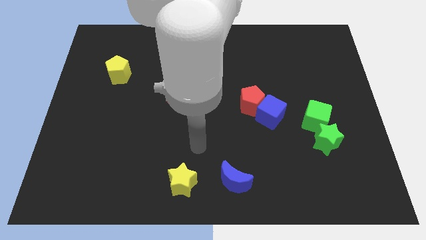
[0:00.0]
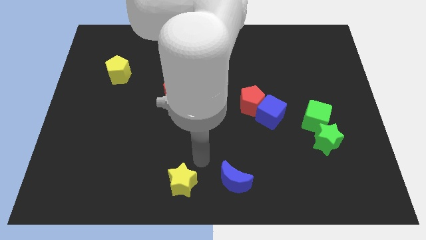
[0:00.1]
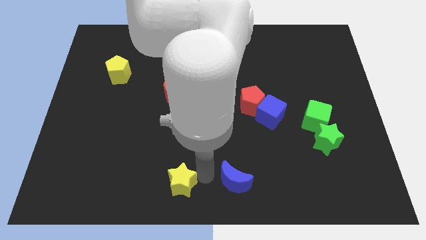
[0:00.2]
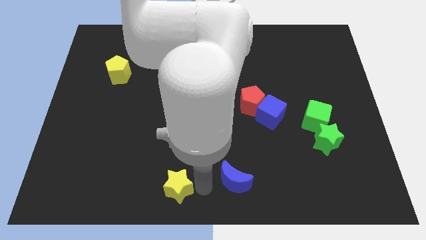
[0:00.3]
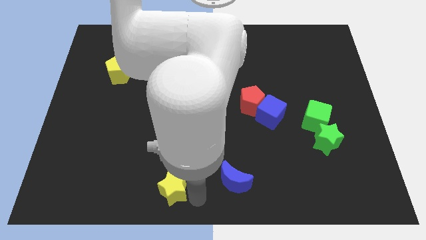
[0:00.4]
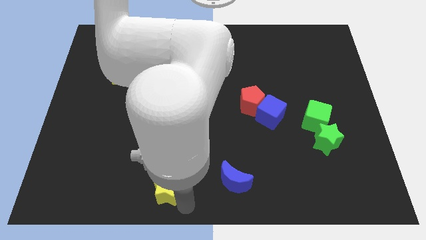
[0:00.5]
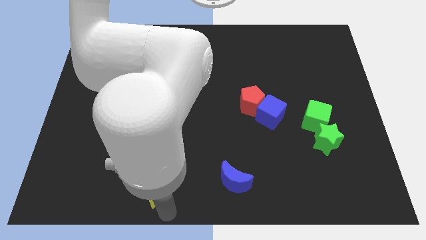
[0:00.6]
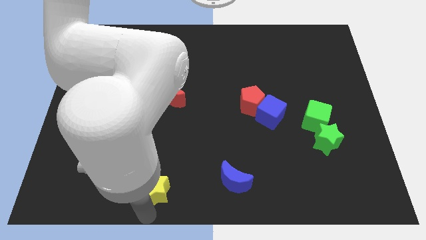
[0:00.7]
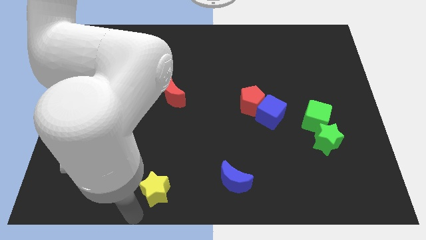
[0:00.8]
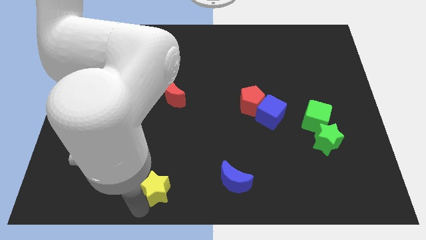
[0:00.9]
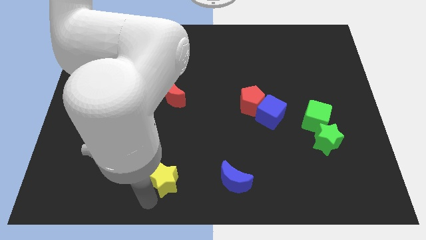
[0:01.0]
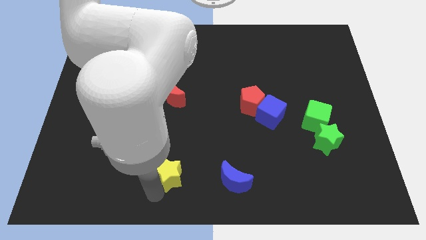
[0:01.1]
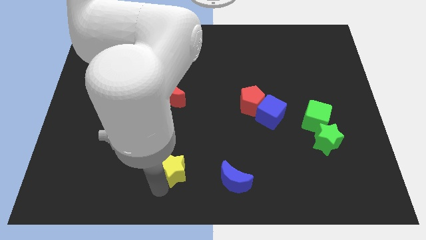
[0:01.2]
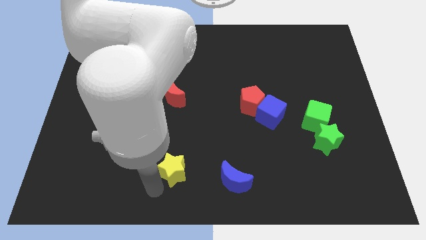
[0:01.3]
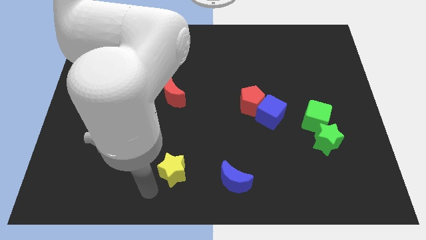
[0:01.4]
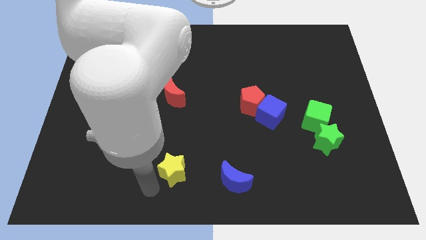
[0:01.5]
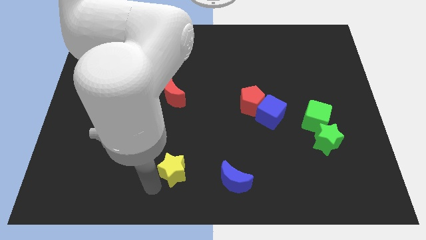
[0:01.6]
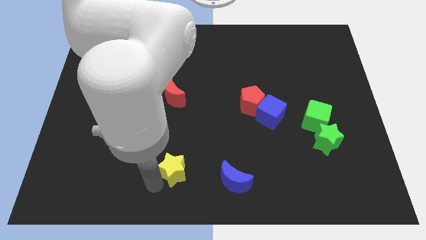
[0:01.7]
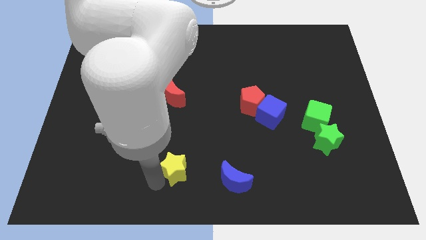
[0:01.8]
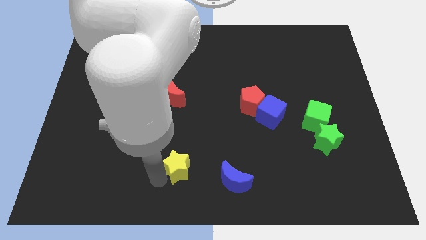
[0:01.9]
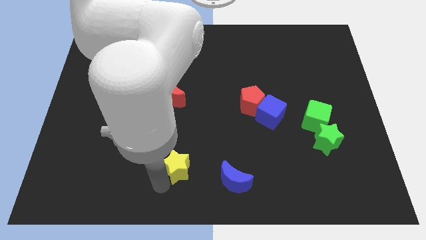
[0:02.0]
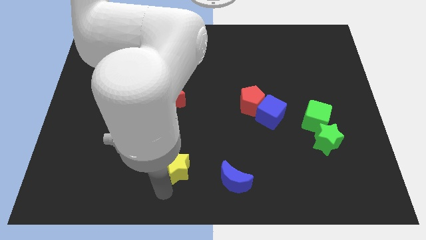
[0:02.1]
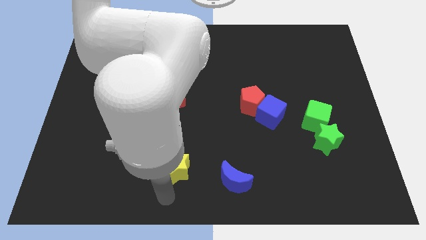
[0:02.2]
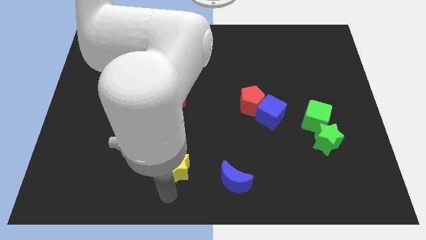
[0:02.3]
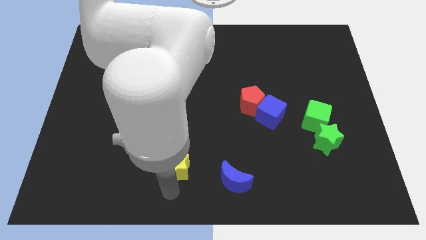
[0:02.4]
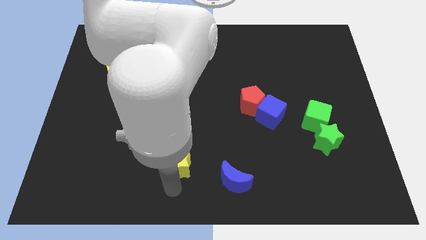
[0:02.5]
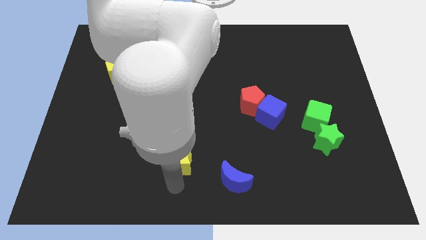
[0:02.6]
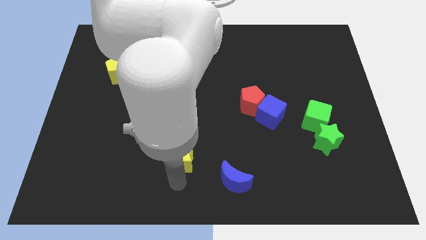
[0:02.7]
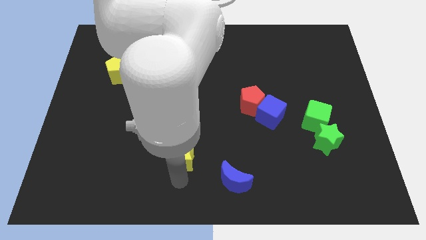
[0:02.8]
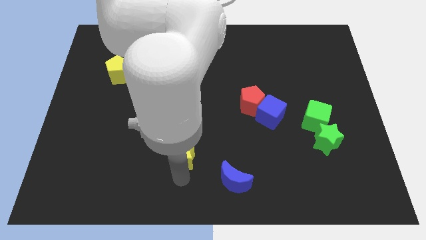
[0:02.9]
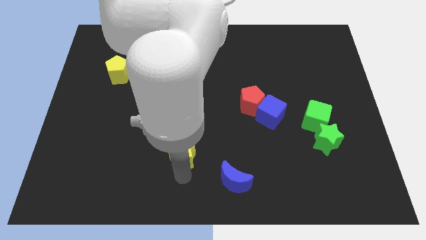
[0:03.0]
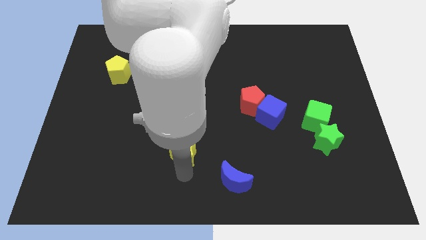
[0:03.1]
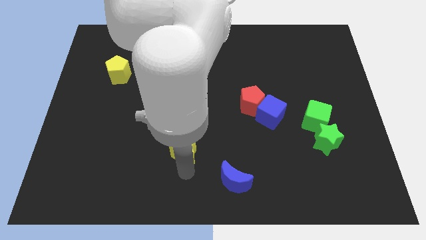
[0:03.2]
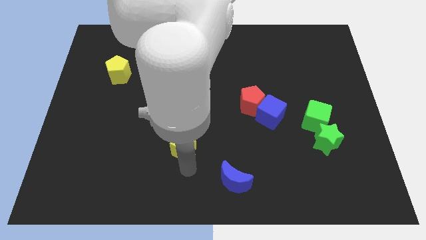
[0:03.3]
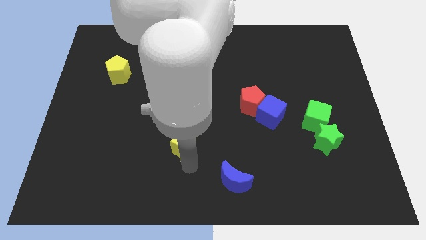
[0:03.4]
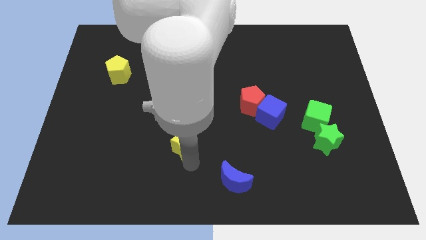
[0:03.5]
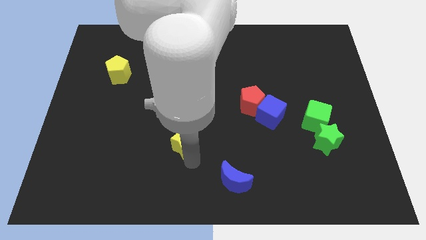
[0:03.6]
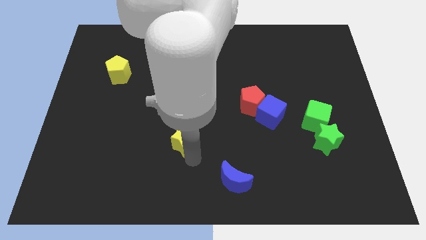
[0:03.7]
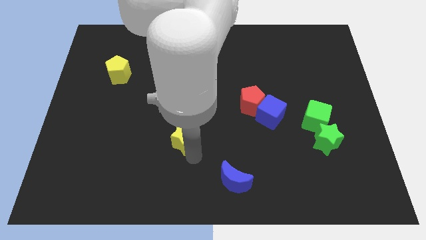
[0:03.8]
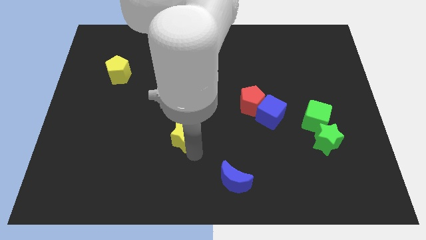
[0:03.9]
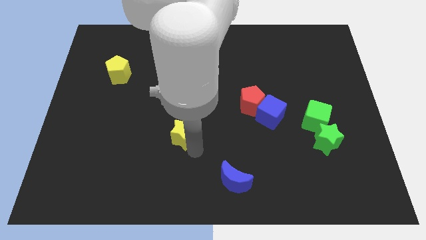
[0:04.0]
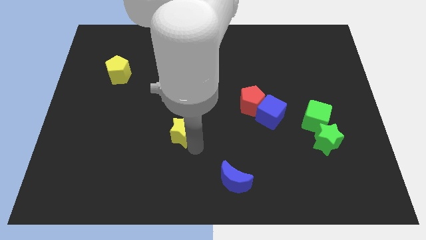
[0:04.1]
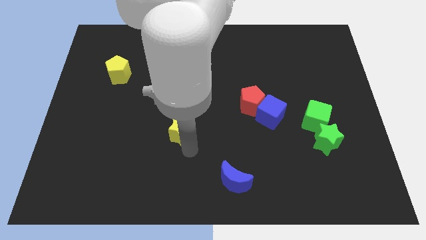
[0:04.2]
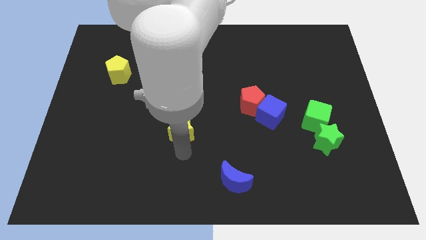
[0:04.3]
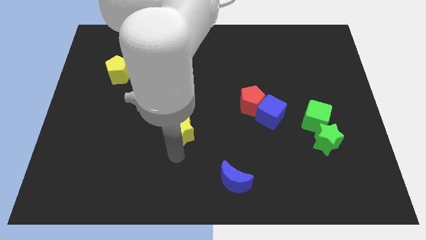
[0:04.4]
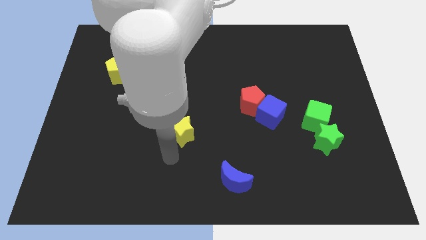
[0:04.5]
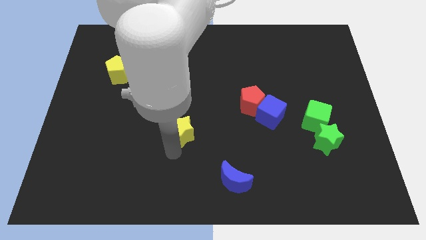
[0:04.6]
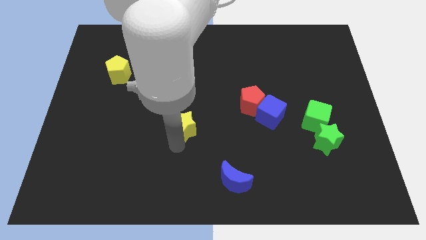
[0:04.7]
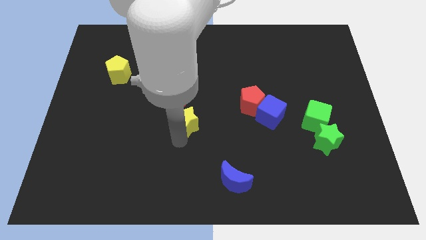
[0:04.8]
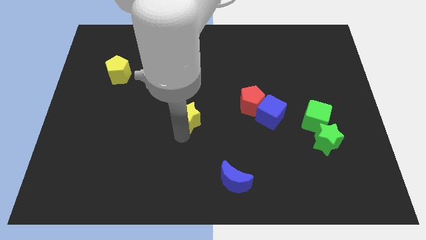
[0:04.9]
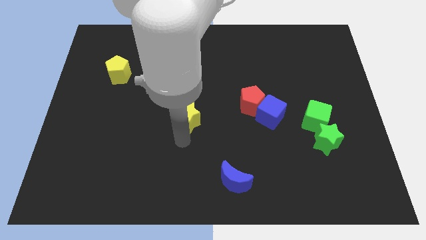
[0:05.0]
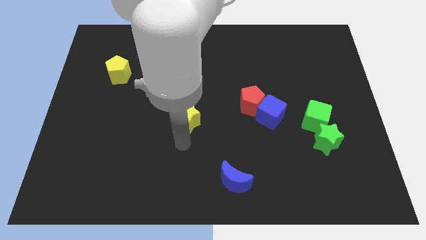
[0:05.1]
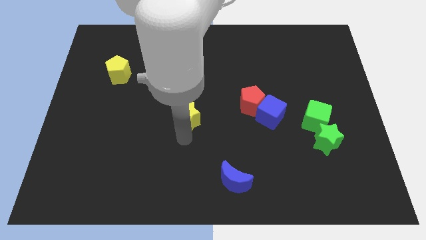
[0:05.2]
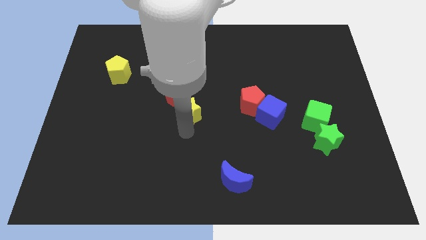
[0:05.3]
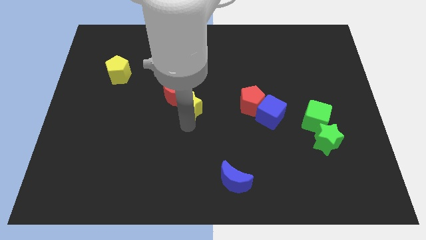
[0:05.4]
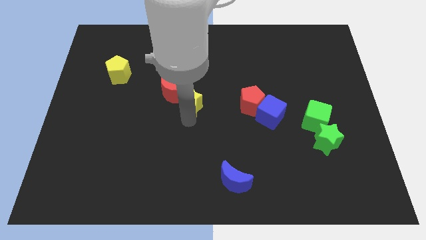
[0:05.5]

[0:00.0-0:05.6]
slide the yellow star up

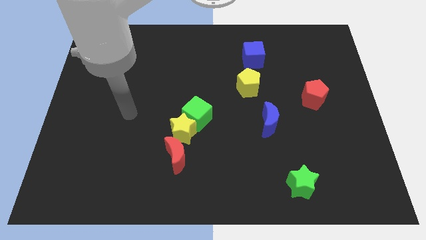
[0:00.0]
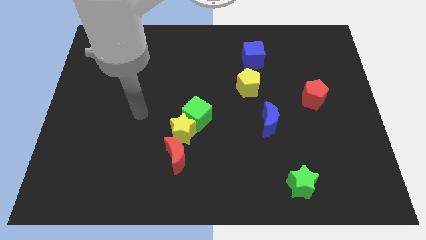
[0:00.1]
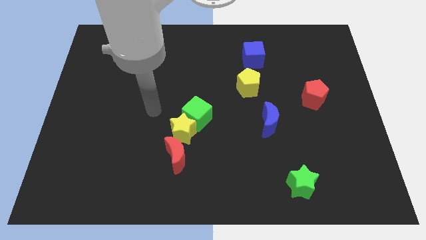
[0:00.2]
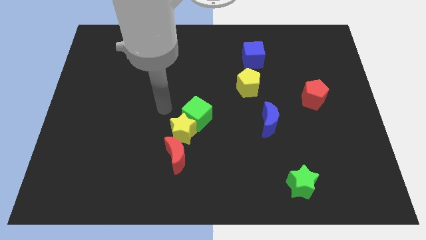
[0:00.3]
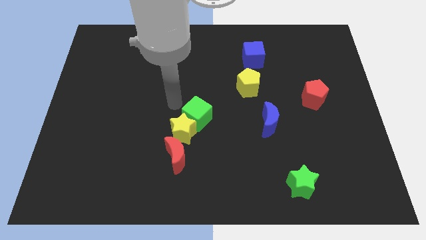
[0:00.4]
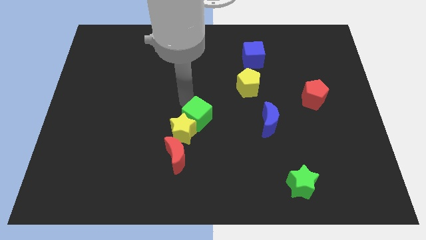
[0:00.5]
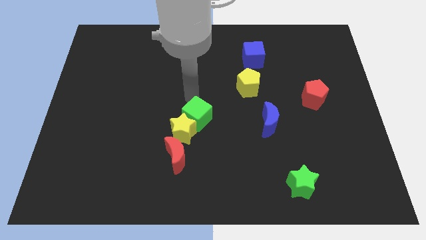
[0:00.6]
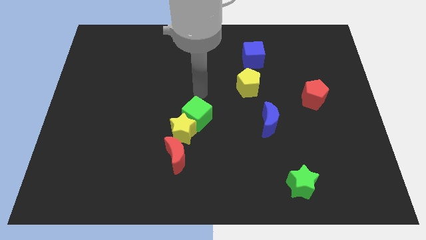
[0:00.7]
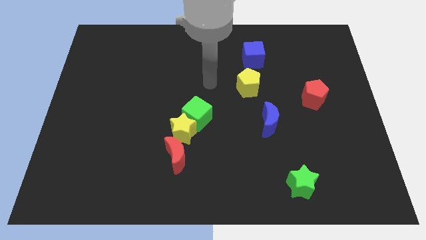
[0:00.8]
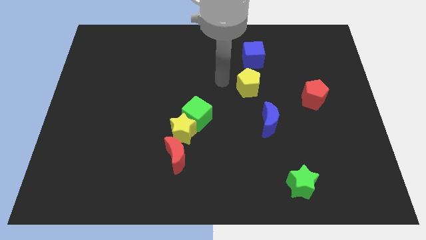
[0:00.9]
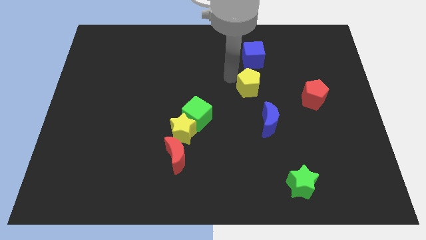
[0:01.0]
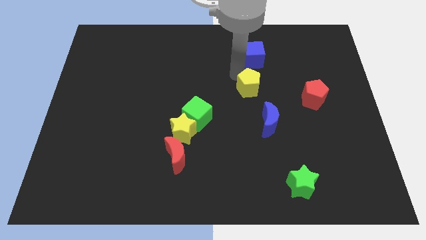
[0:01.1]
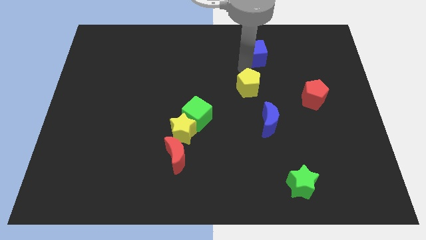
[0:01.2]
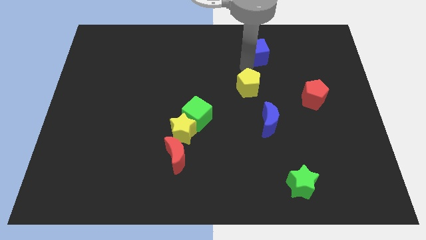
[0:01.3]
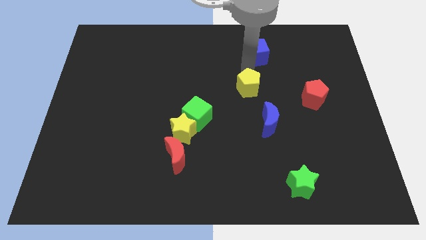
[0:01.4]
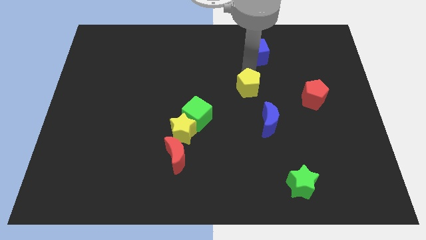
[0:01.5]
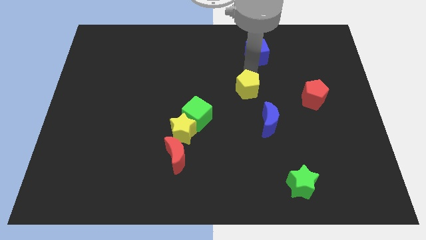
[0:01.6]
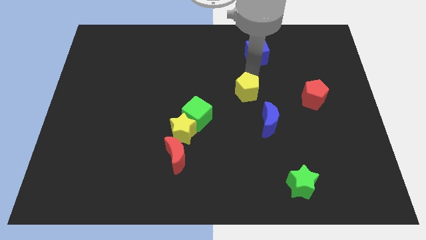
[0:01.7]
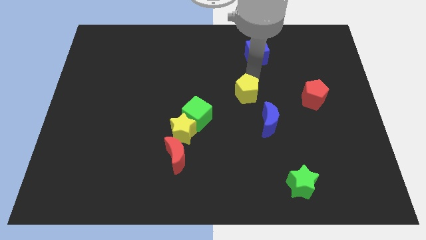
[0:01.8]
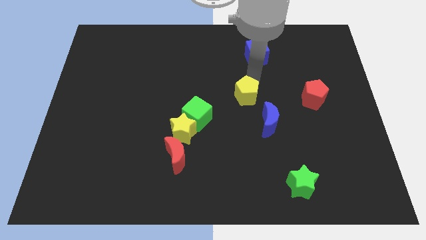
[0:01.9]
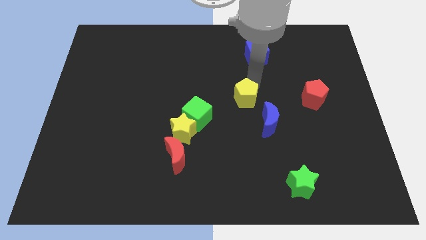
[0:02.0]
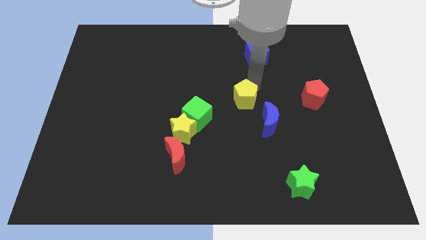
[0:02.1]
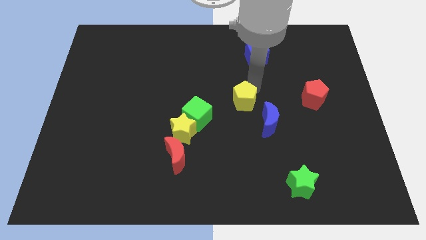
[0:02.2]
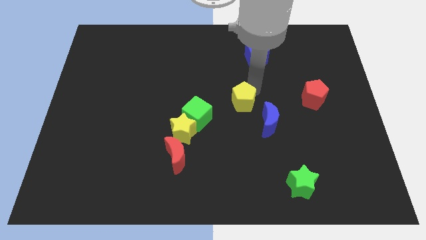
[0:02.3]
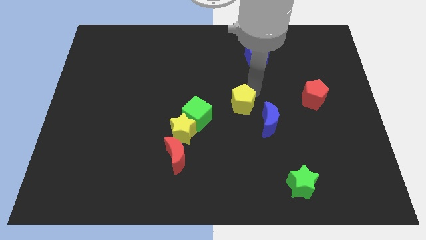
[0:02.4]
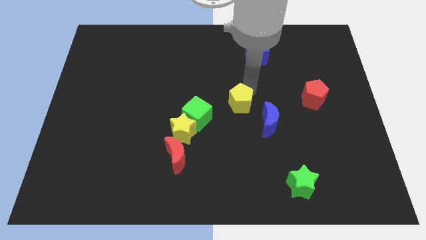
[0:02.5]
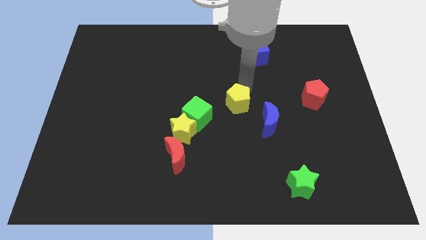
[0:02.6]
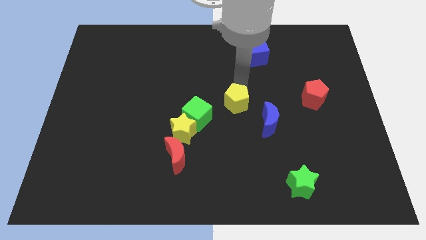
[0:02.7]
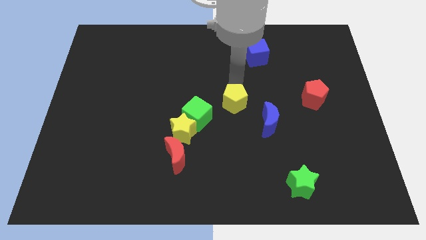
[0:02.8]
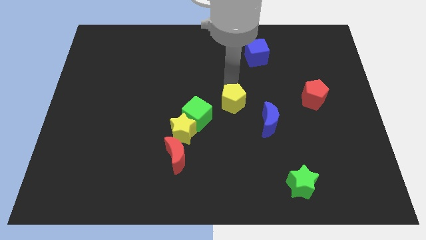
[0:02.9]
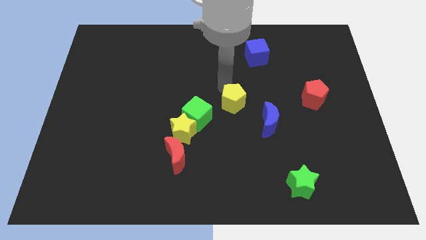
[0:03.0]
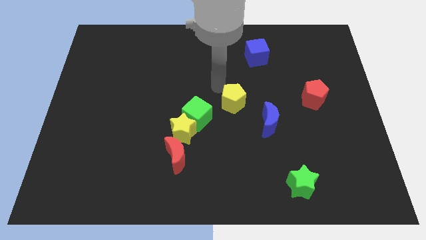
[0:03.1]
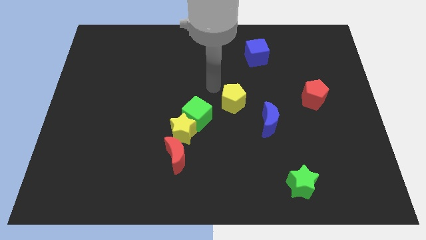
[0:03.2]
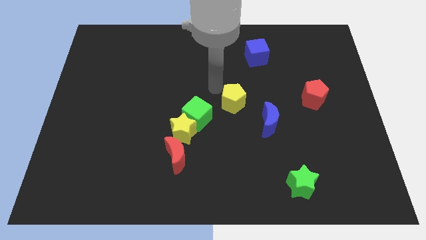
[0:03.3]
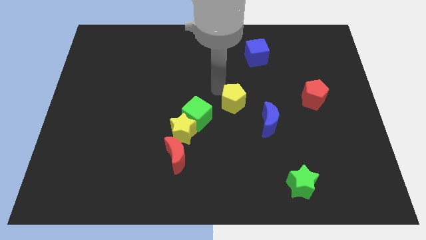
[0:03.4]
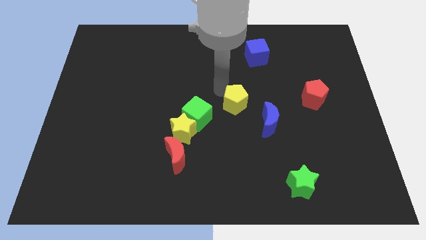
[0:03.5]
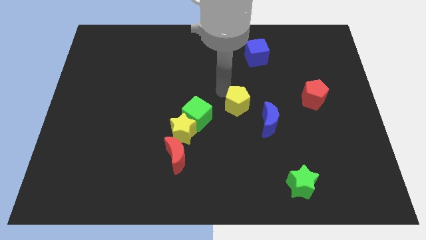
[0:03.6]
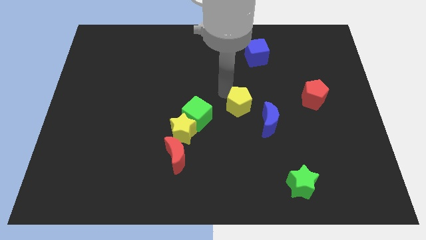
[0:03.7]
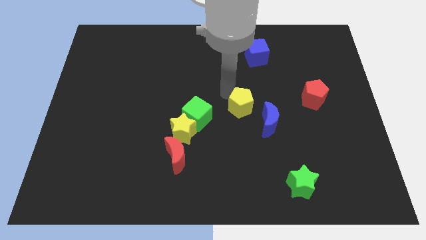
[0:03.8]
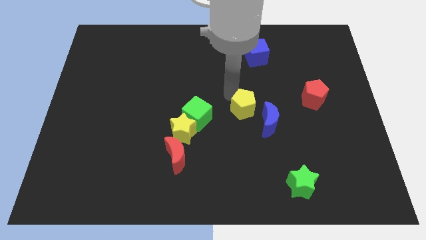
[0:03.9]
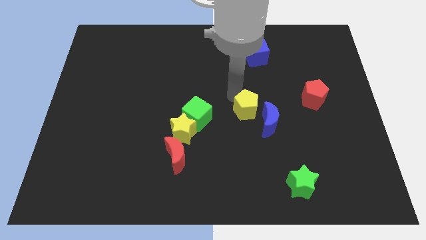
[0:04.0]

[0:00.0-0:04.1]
slide the yellow pentagon downwards slightly
